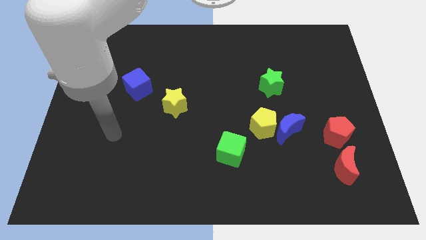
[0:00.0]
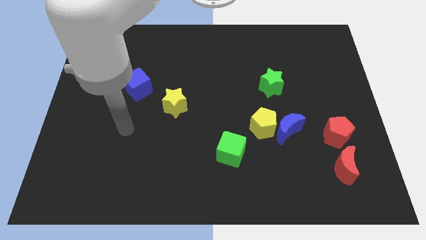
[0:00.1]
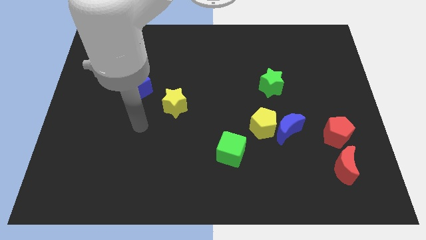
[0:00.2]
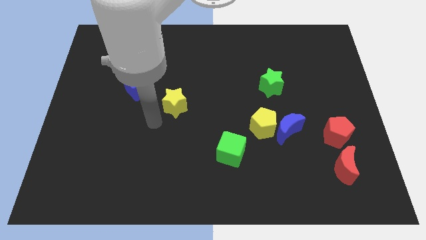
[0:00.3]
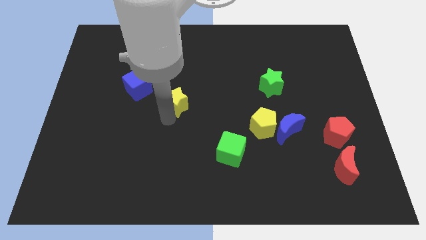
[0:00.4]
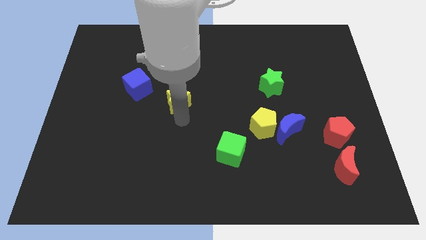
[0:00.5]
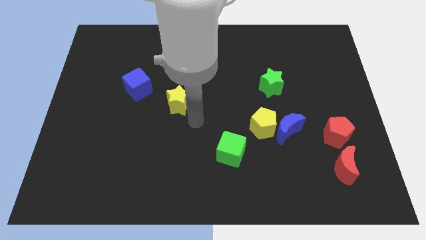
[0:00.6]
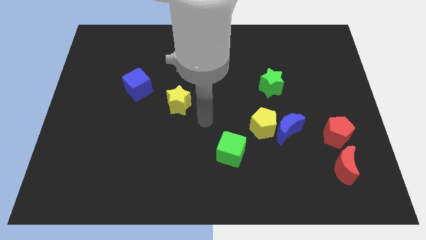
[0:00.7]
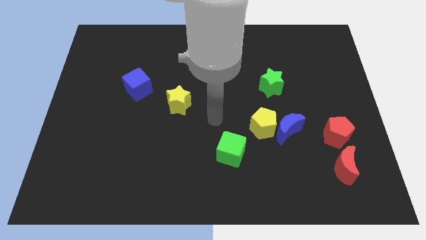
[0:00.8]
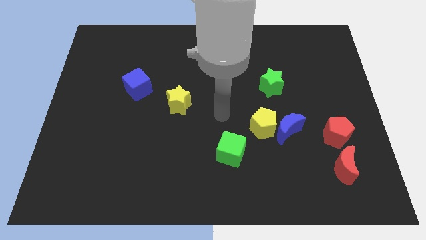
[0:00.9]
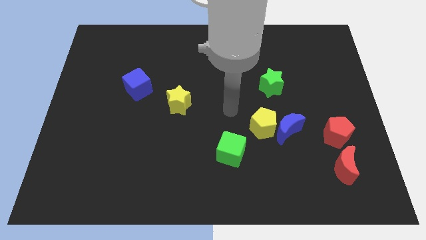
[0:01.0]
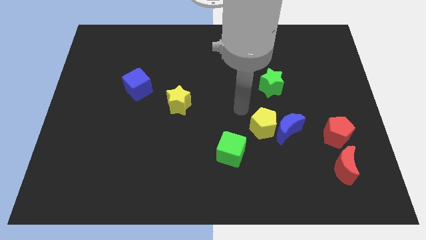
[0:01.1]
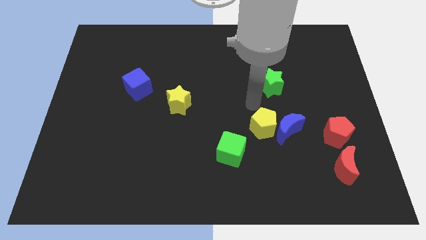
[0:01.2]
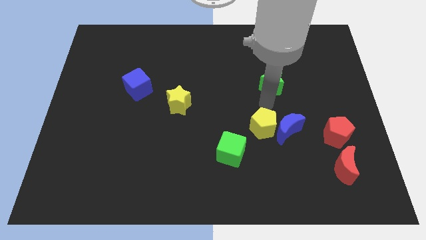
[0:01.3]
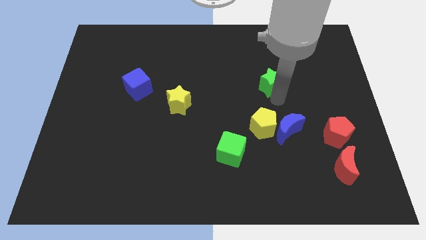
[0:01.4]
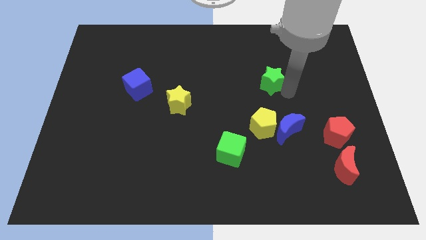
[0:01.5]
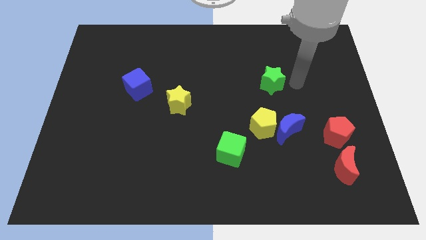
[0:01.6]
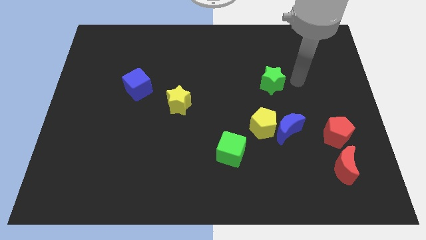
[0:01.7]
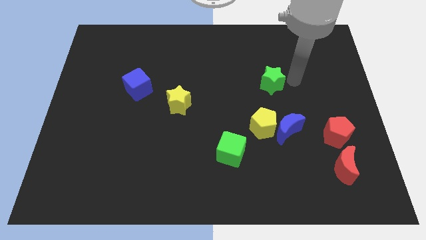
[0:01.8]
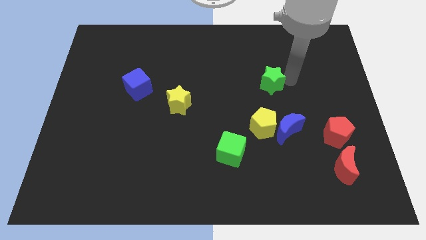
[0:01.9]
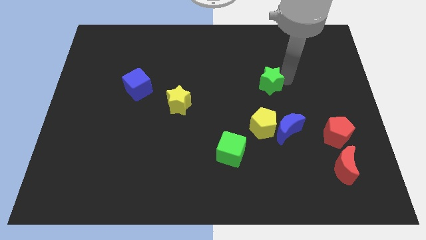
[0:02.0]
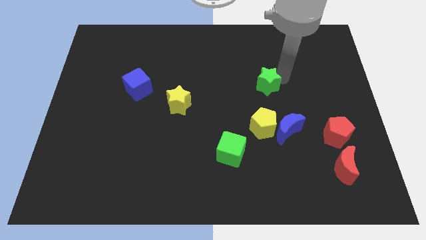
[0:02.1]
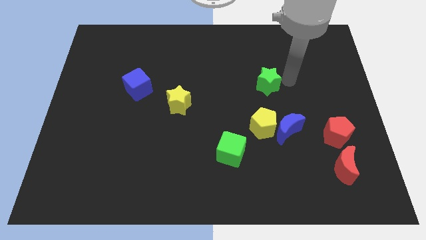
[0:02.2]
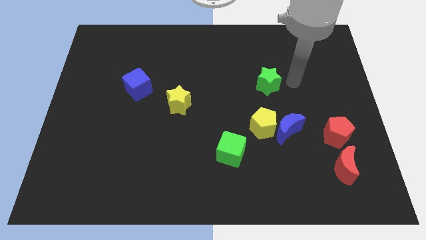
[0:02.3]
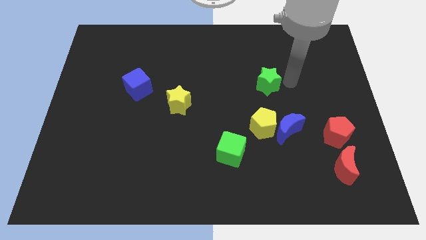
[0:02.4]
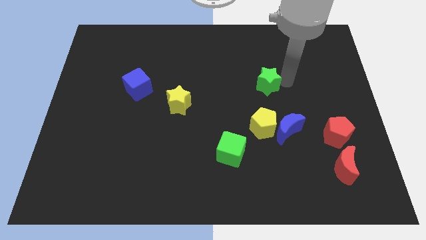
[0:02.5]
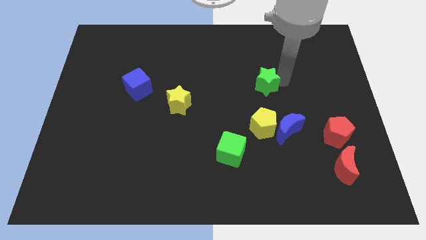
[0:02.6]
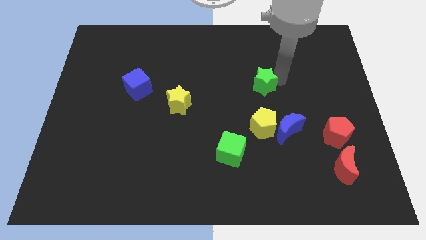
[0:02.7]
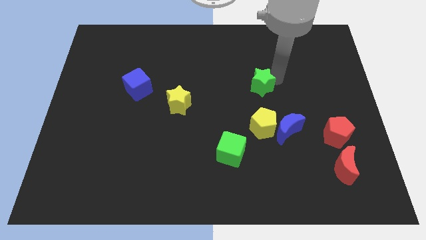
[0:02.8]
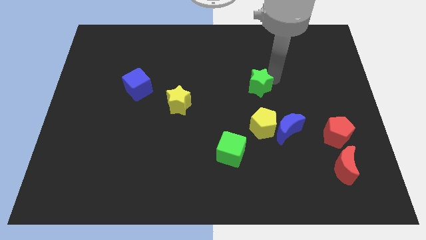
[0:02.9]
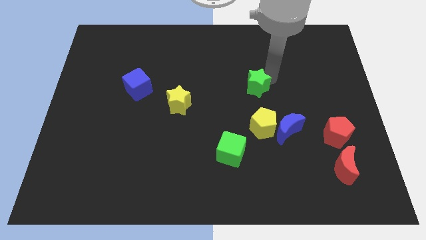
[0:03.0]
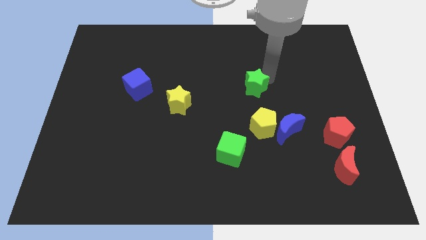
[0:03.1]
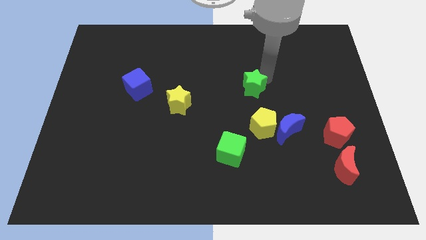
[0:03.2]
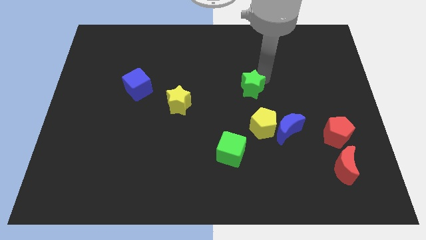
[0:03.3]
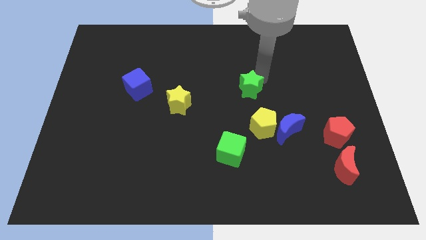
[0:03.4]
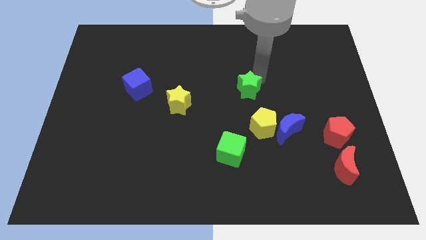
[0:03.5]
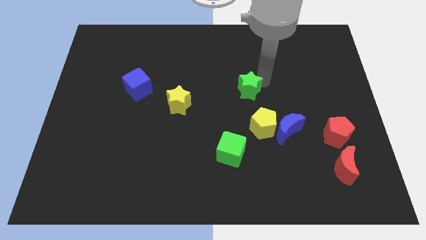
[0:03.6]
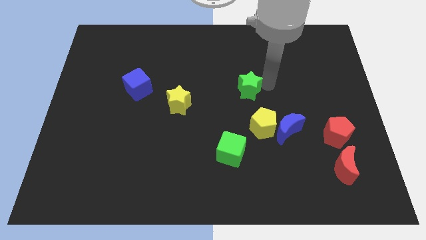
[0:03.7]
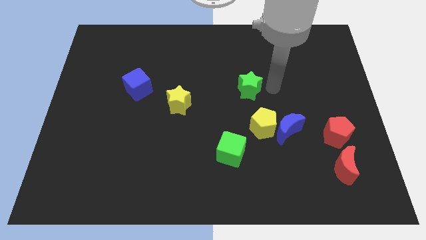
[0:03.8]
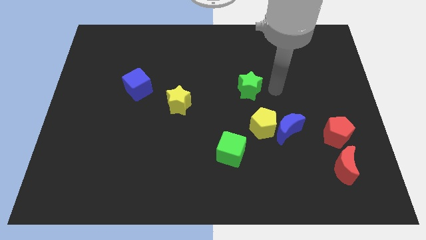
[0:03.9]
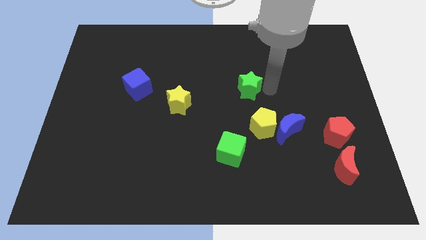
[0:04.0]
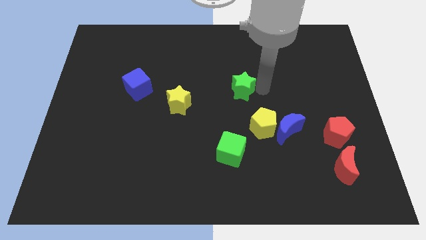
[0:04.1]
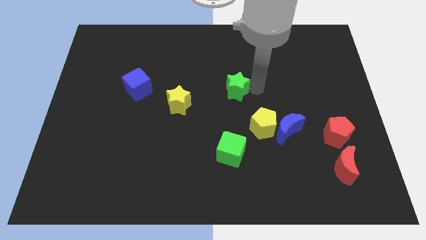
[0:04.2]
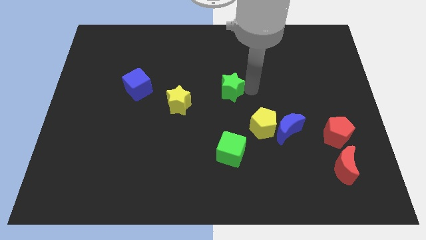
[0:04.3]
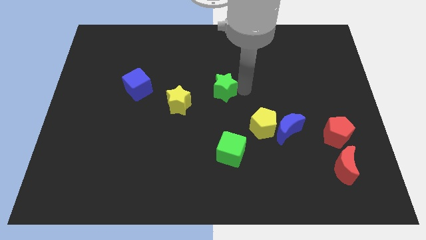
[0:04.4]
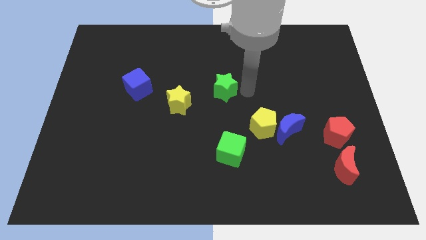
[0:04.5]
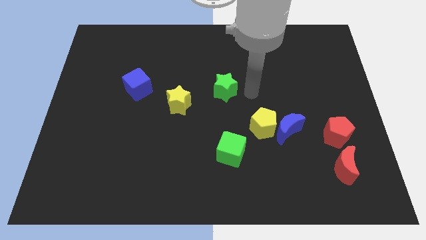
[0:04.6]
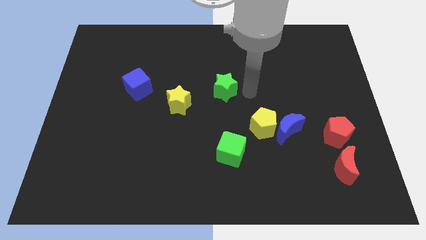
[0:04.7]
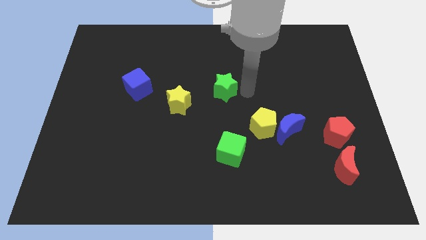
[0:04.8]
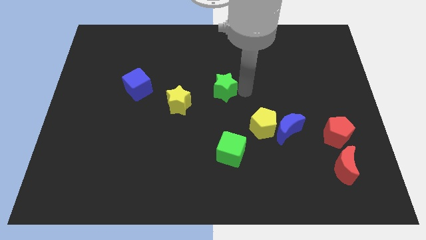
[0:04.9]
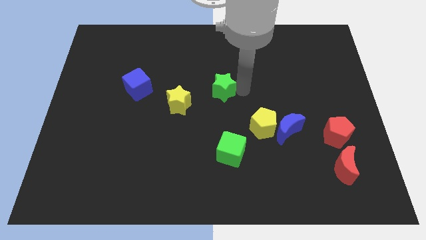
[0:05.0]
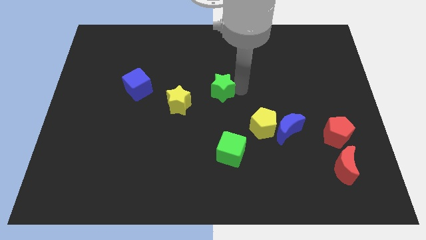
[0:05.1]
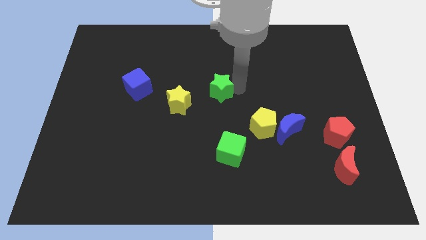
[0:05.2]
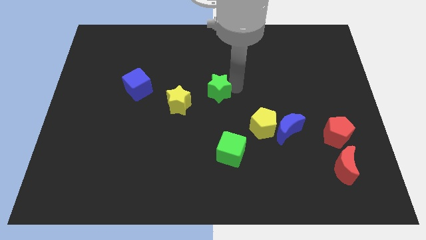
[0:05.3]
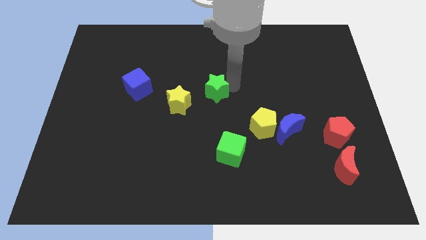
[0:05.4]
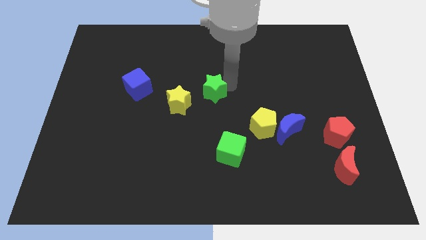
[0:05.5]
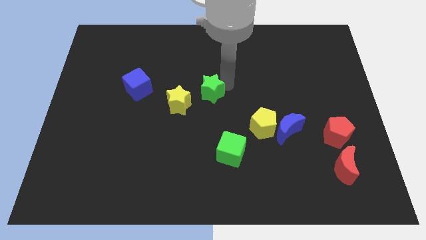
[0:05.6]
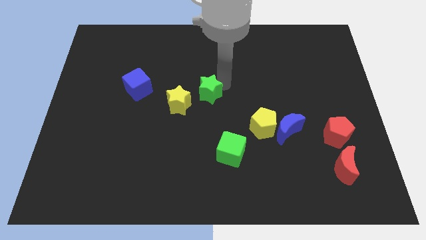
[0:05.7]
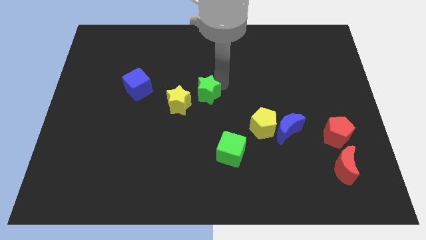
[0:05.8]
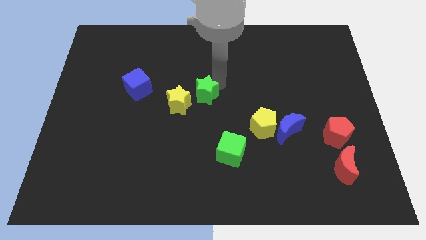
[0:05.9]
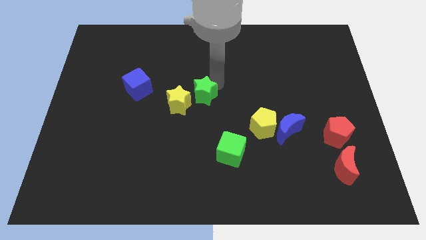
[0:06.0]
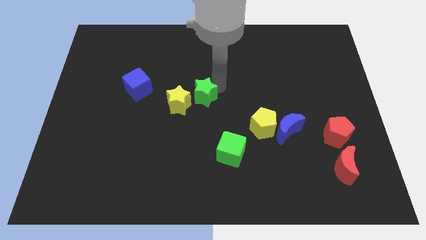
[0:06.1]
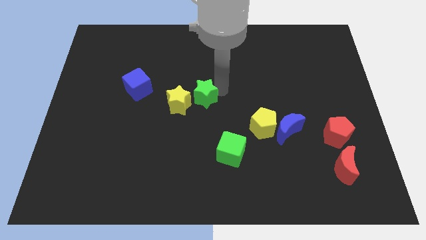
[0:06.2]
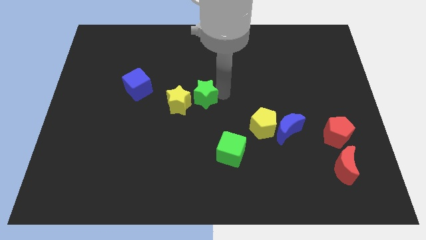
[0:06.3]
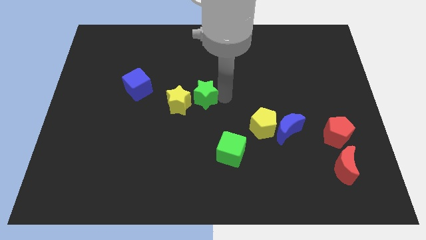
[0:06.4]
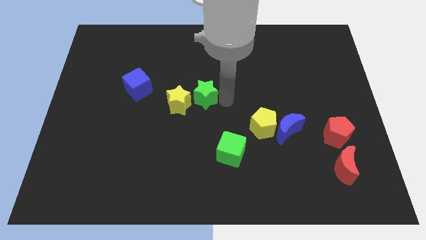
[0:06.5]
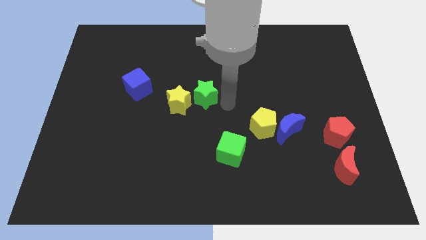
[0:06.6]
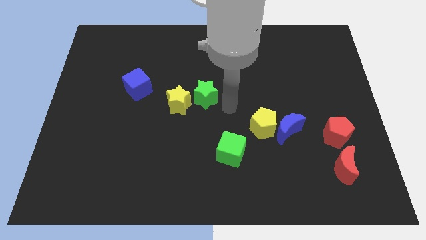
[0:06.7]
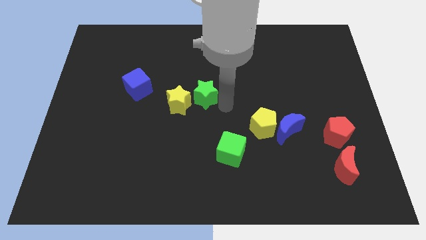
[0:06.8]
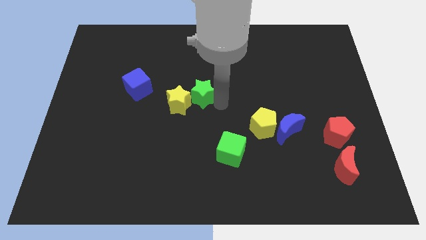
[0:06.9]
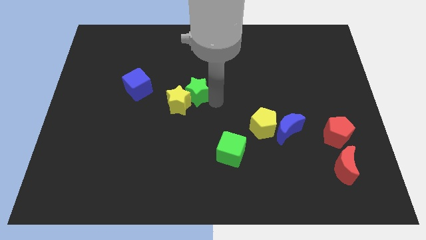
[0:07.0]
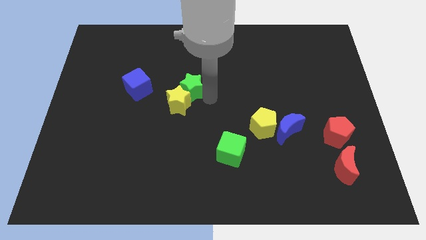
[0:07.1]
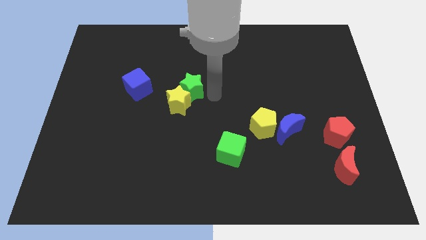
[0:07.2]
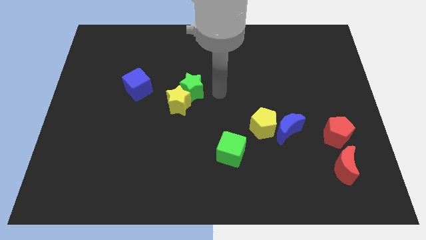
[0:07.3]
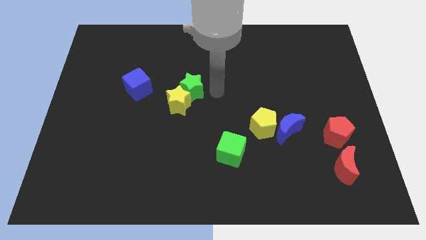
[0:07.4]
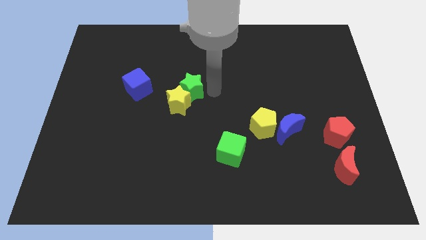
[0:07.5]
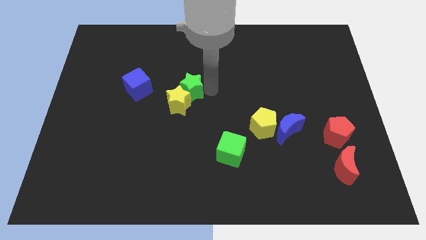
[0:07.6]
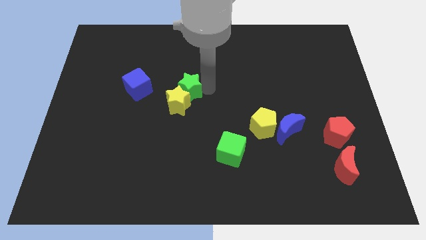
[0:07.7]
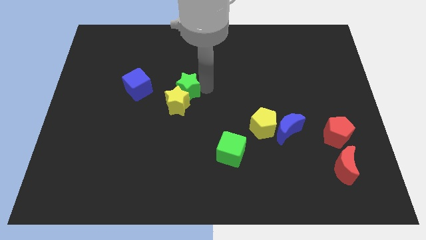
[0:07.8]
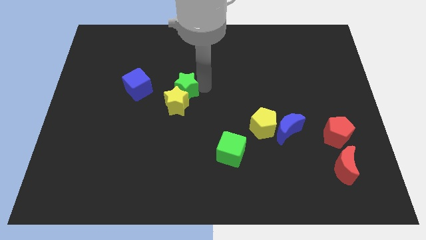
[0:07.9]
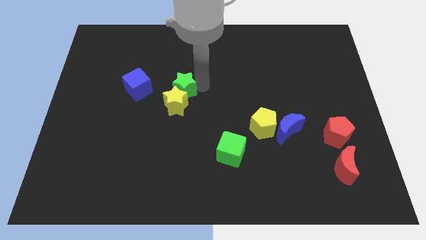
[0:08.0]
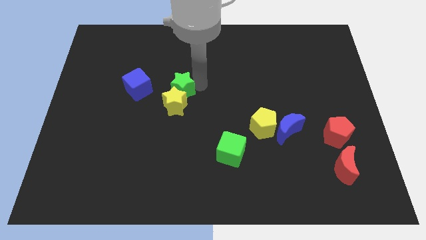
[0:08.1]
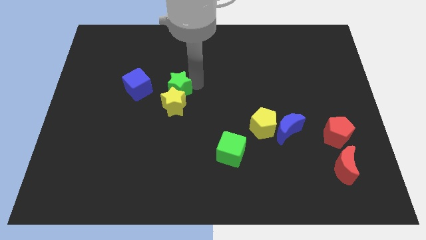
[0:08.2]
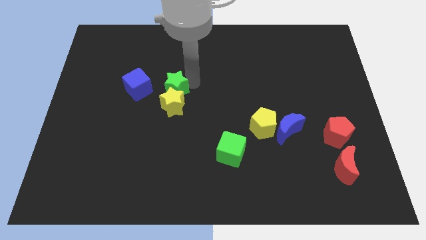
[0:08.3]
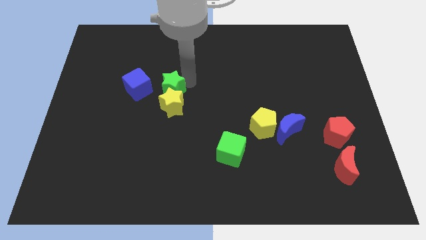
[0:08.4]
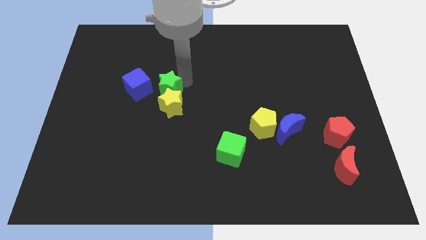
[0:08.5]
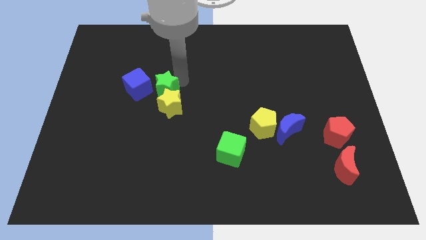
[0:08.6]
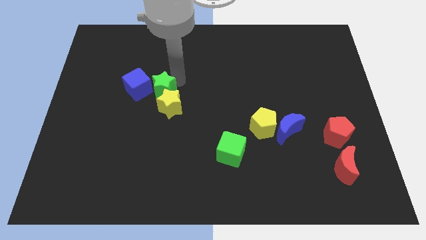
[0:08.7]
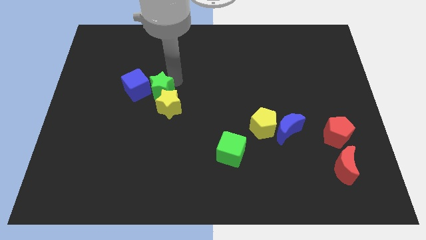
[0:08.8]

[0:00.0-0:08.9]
move the green star next to the blue cube
